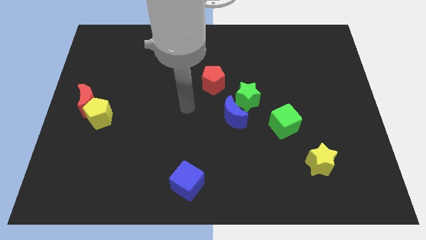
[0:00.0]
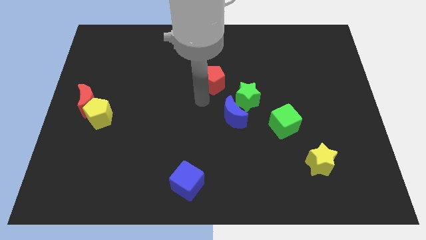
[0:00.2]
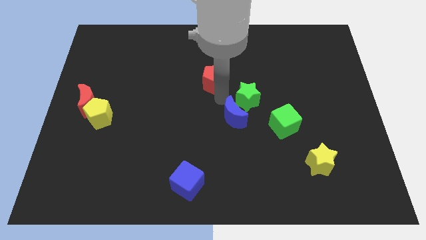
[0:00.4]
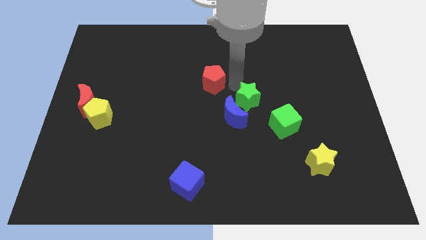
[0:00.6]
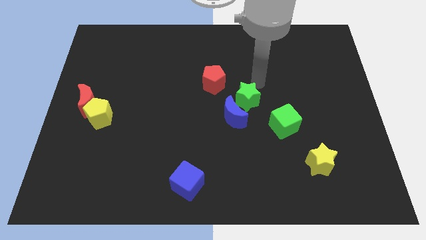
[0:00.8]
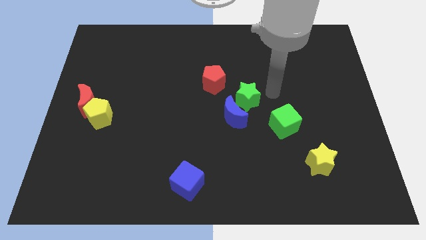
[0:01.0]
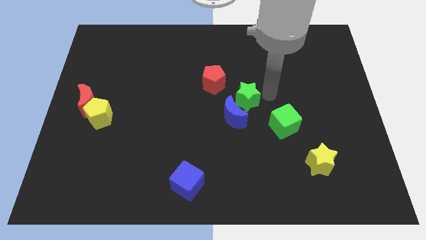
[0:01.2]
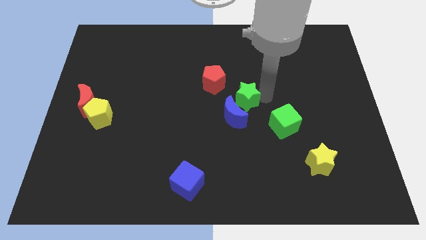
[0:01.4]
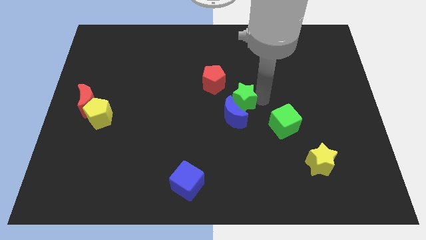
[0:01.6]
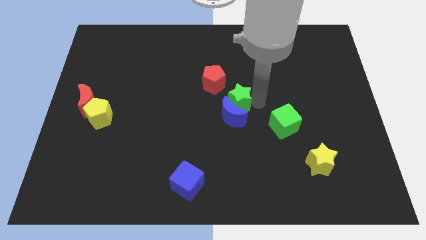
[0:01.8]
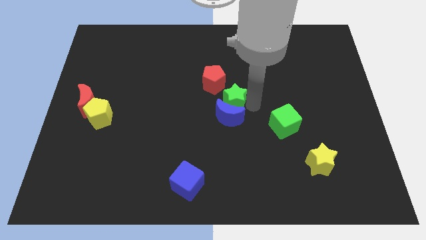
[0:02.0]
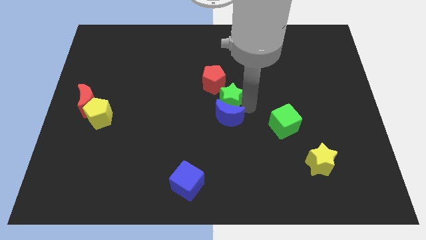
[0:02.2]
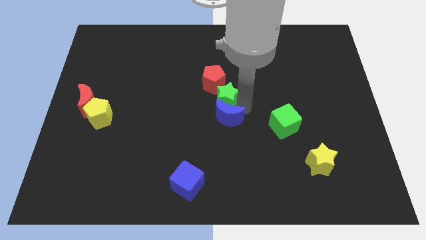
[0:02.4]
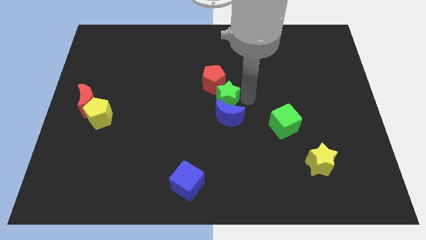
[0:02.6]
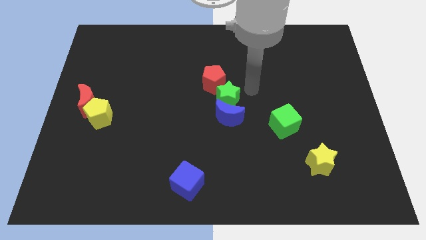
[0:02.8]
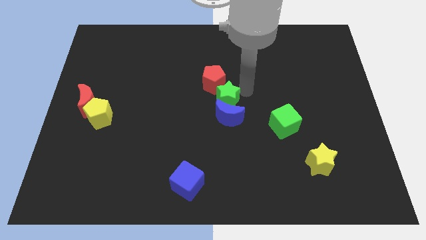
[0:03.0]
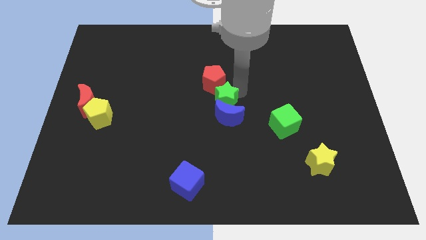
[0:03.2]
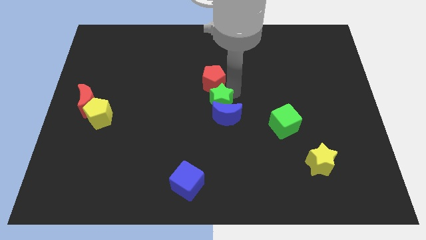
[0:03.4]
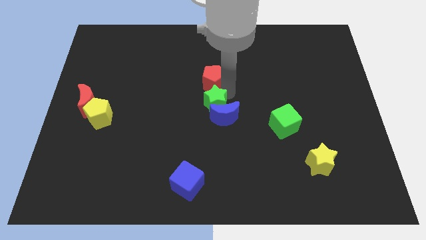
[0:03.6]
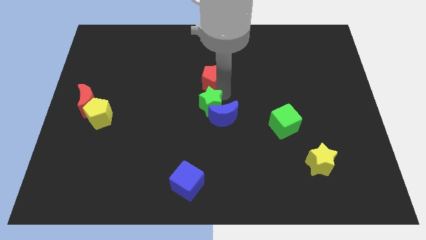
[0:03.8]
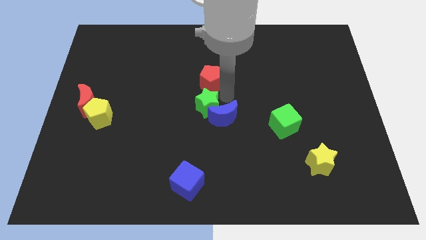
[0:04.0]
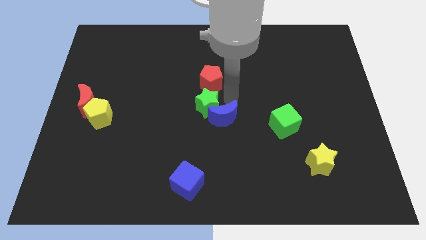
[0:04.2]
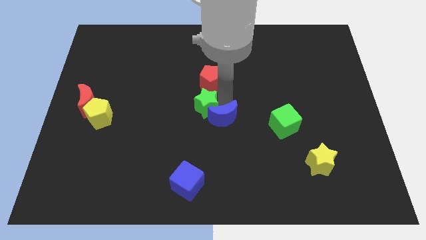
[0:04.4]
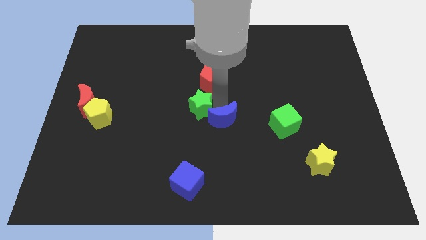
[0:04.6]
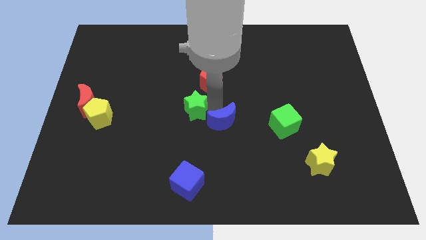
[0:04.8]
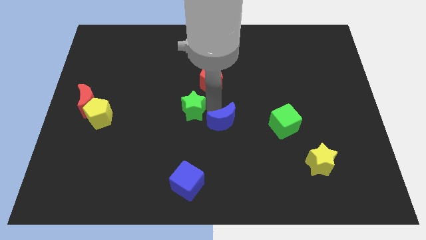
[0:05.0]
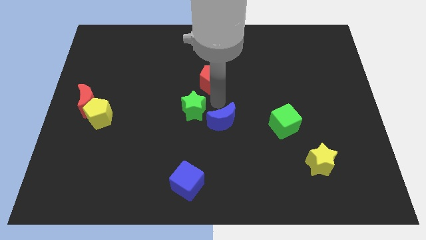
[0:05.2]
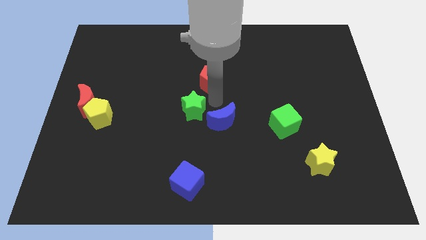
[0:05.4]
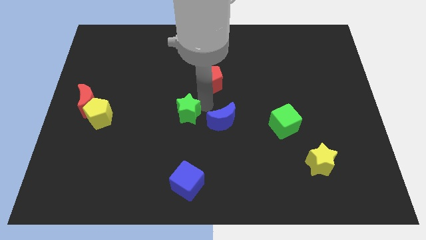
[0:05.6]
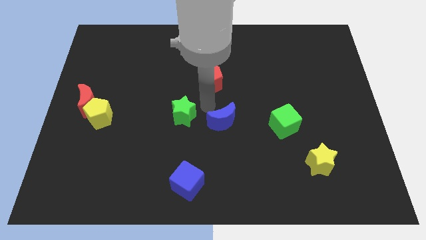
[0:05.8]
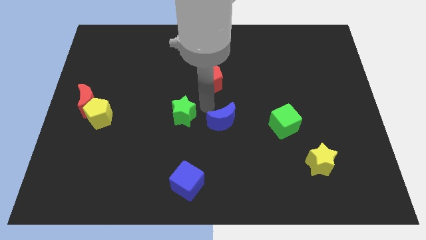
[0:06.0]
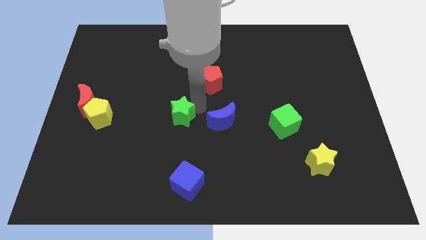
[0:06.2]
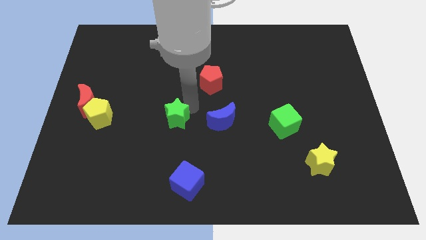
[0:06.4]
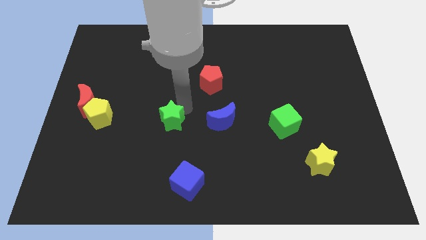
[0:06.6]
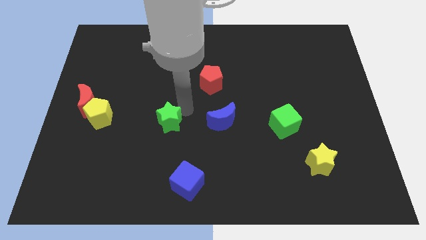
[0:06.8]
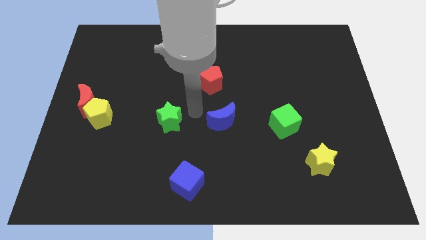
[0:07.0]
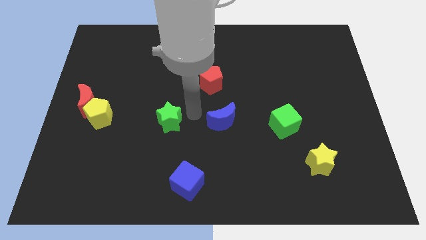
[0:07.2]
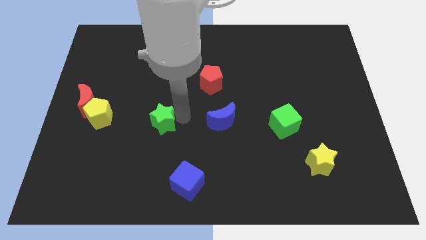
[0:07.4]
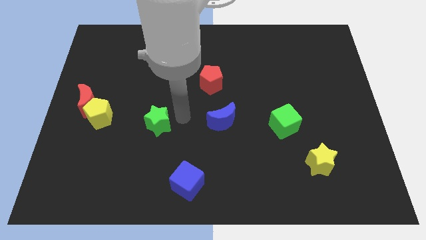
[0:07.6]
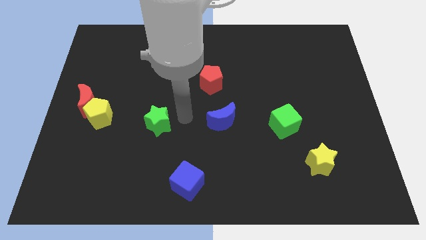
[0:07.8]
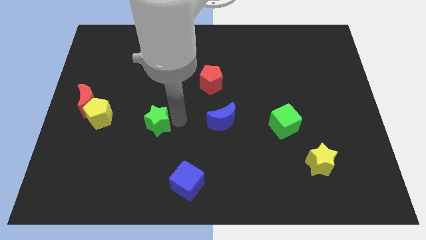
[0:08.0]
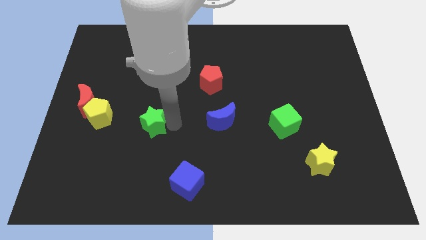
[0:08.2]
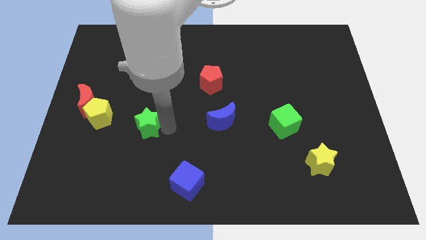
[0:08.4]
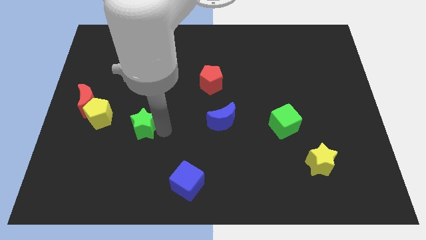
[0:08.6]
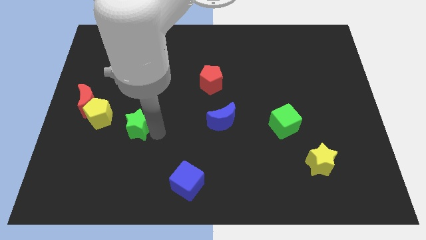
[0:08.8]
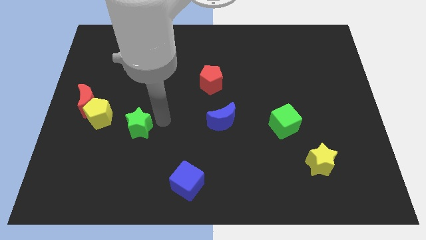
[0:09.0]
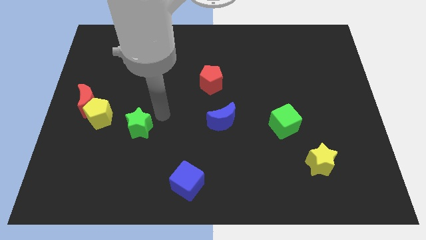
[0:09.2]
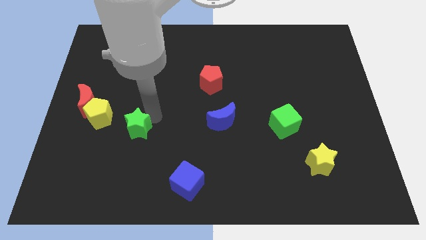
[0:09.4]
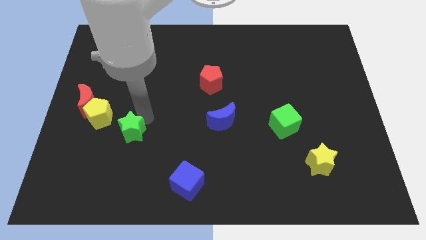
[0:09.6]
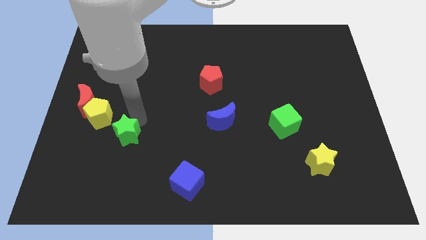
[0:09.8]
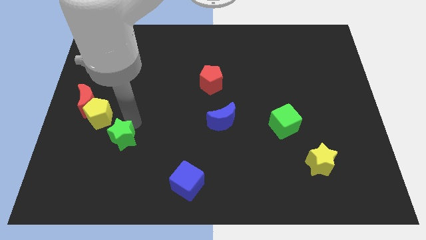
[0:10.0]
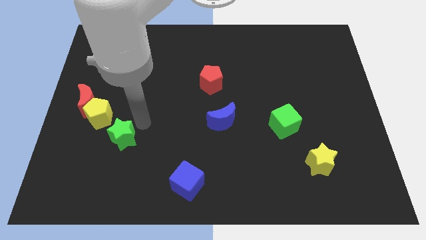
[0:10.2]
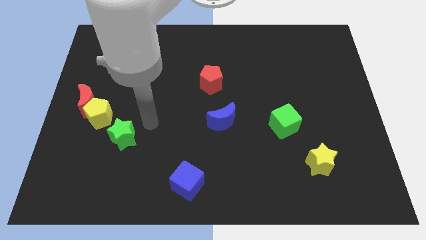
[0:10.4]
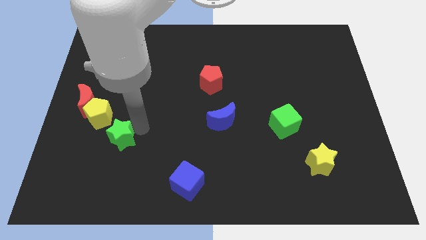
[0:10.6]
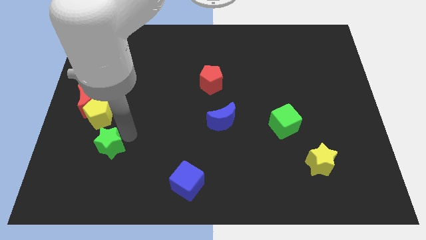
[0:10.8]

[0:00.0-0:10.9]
move the green star to the bottom of the yellow pentagon

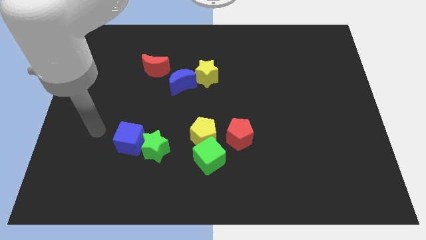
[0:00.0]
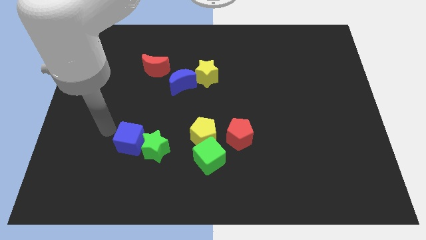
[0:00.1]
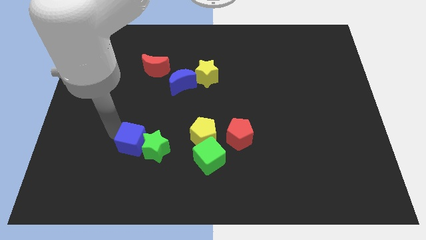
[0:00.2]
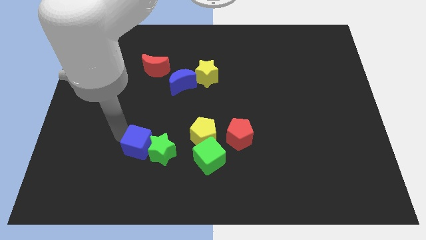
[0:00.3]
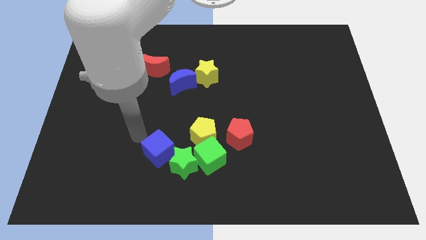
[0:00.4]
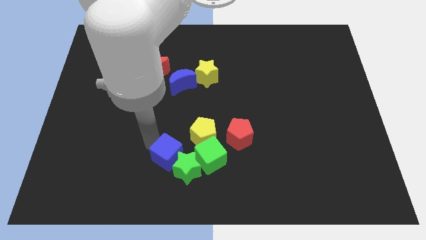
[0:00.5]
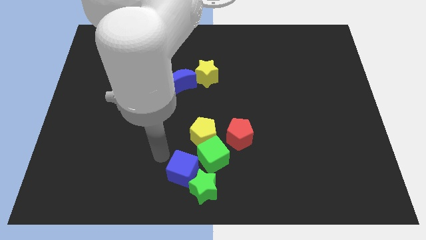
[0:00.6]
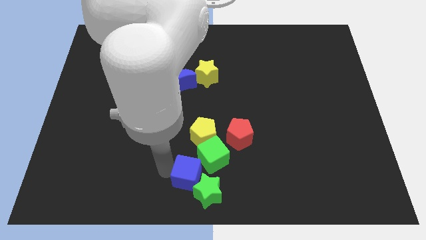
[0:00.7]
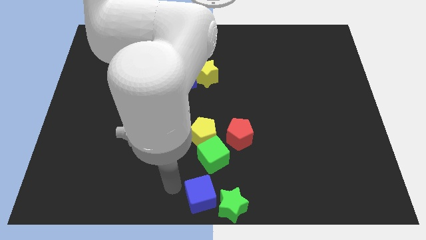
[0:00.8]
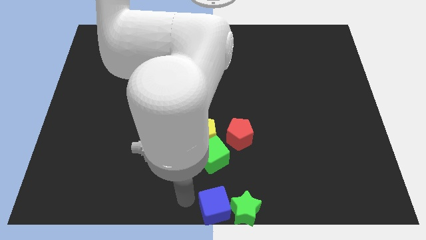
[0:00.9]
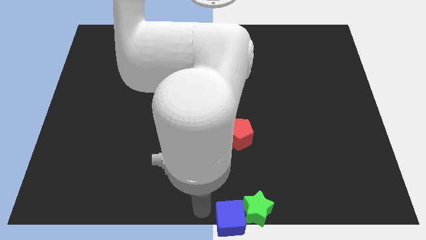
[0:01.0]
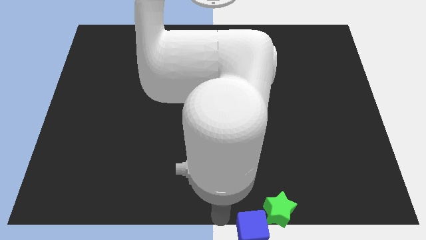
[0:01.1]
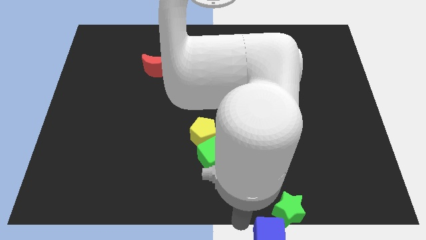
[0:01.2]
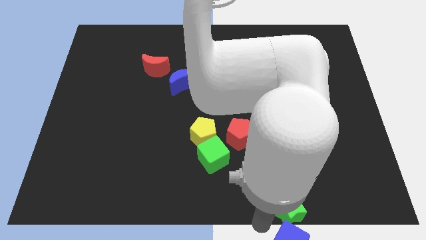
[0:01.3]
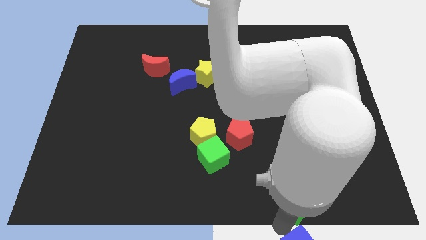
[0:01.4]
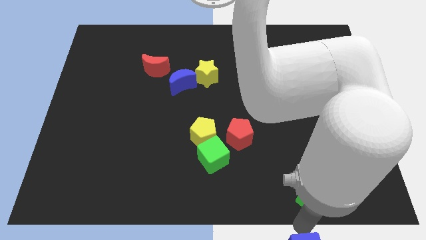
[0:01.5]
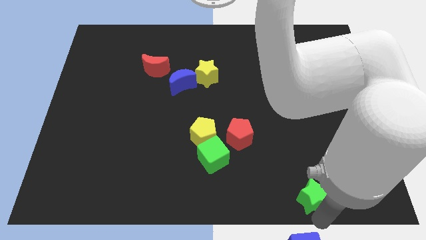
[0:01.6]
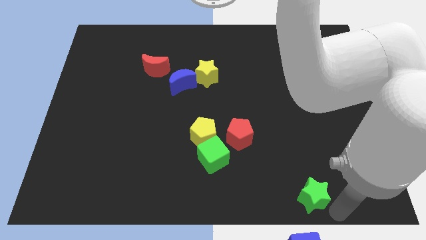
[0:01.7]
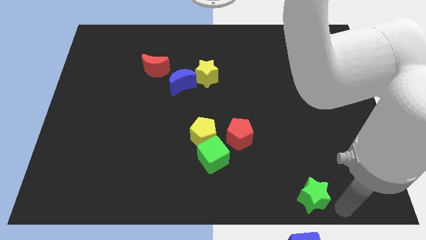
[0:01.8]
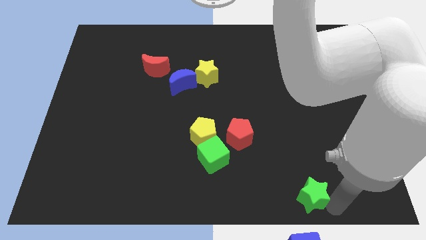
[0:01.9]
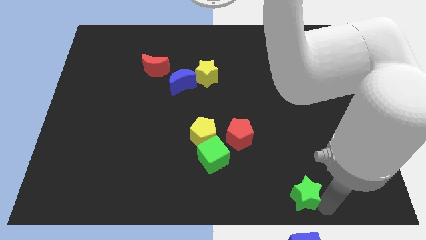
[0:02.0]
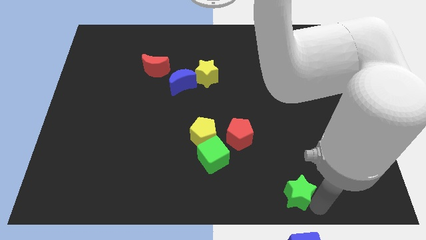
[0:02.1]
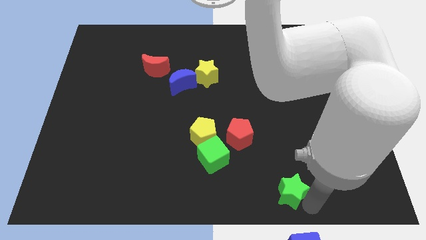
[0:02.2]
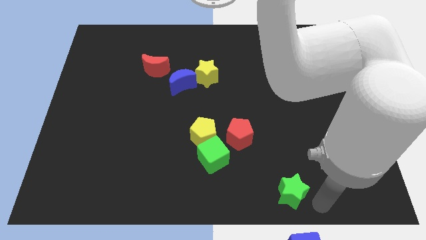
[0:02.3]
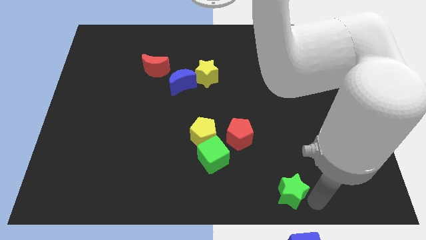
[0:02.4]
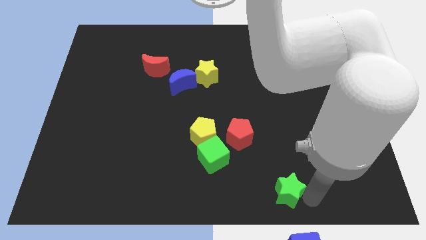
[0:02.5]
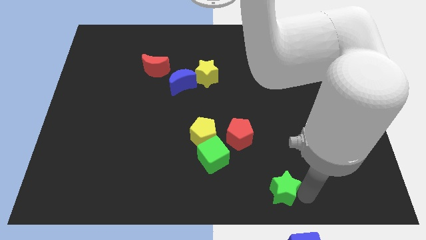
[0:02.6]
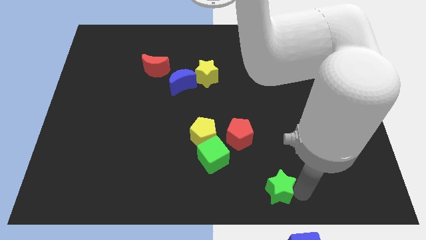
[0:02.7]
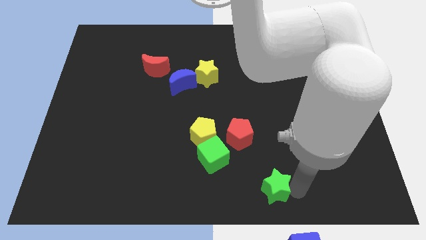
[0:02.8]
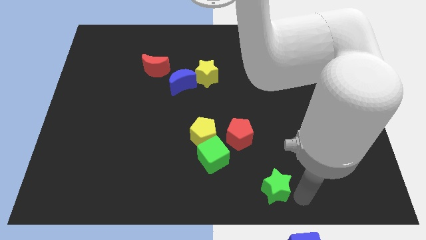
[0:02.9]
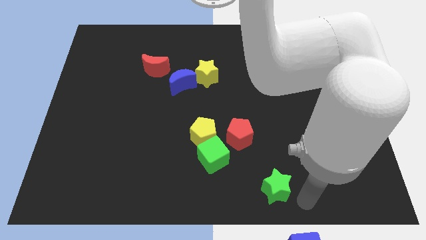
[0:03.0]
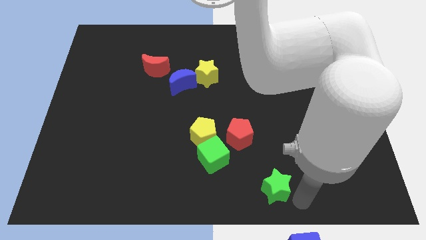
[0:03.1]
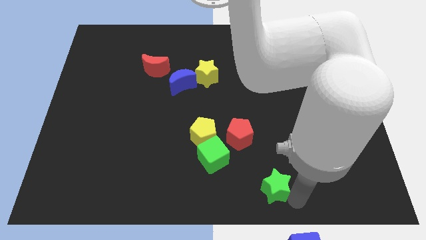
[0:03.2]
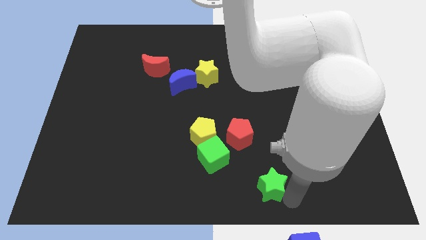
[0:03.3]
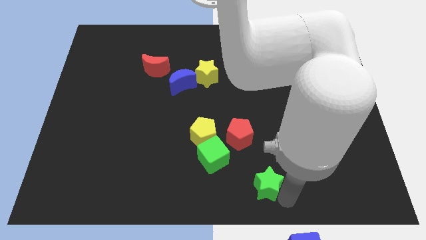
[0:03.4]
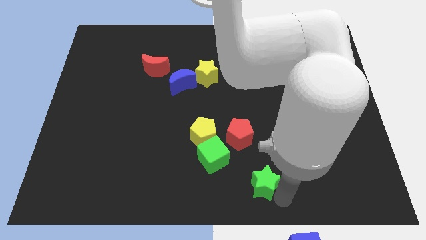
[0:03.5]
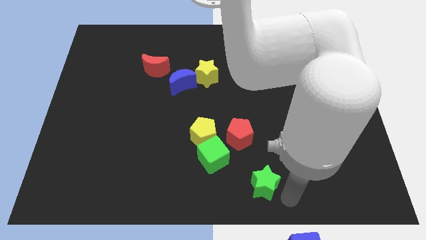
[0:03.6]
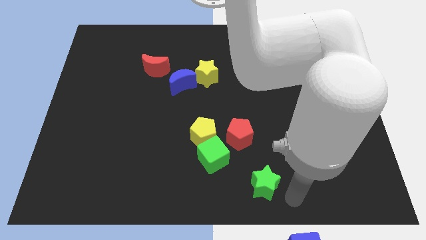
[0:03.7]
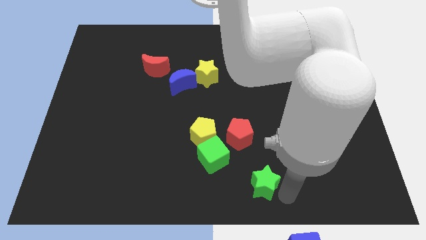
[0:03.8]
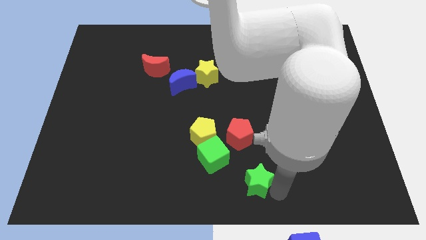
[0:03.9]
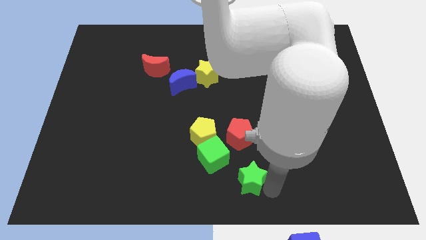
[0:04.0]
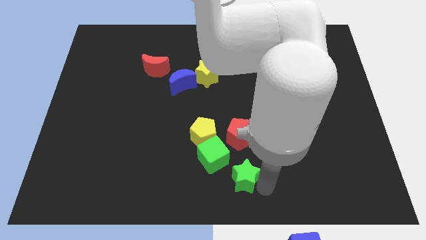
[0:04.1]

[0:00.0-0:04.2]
put the green star to the right side of the green cube
